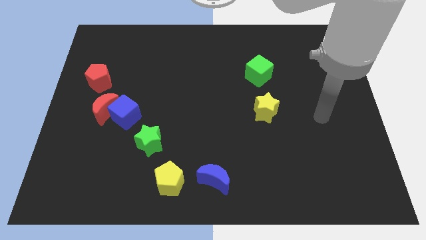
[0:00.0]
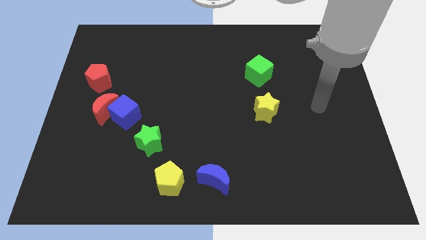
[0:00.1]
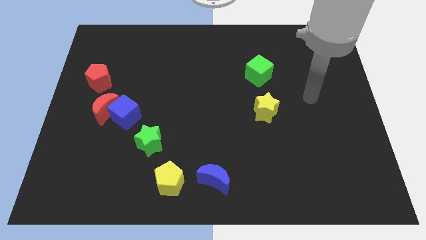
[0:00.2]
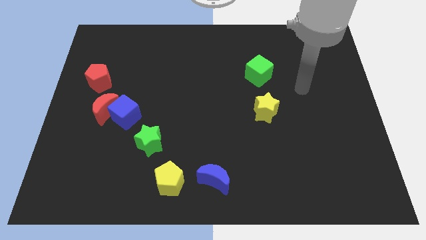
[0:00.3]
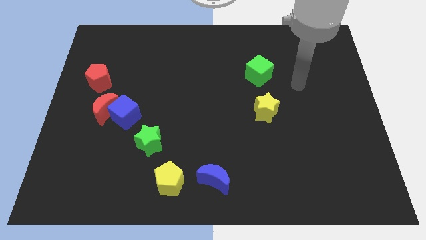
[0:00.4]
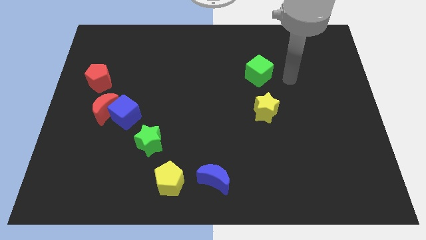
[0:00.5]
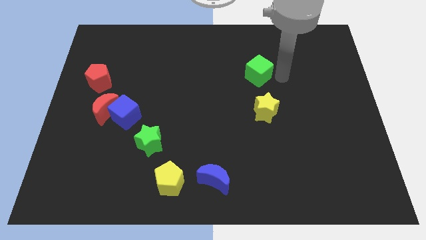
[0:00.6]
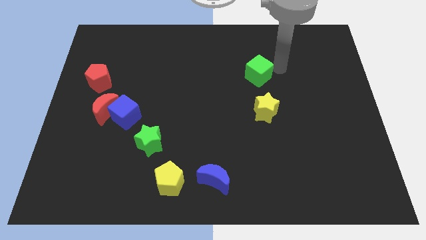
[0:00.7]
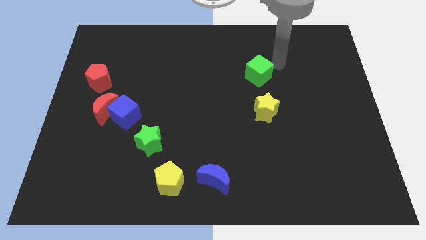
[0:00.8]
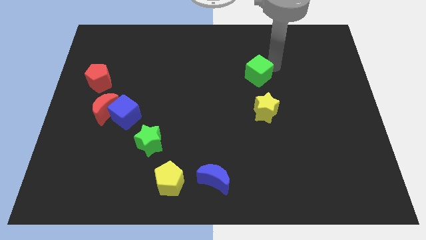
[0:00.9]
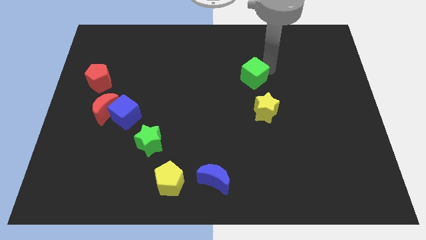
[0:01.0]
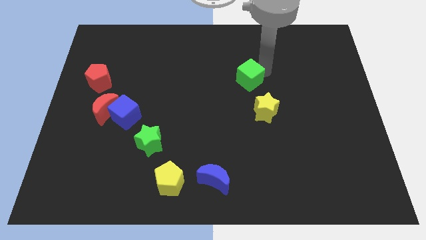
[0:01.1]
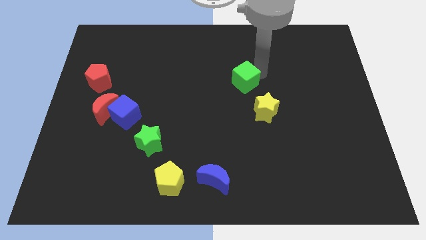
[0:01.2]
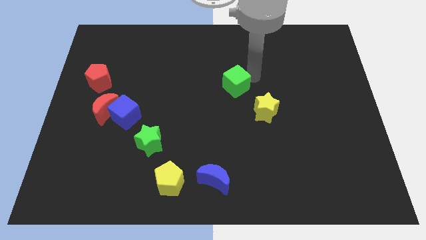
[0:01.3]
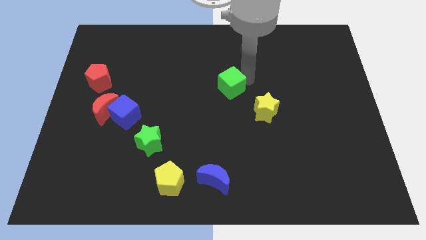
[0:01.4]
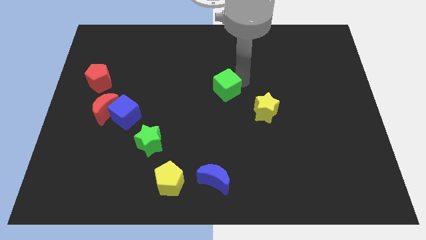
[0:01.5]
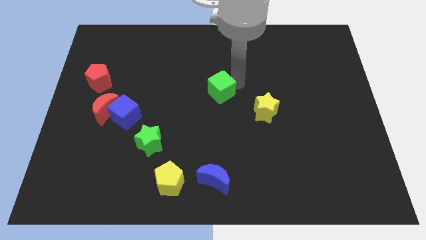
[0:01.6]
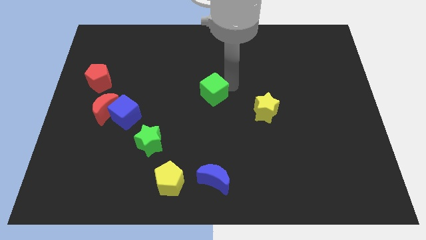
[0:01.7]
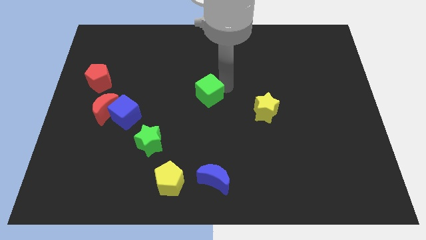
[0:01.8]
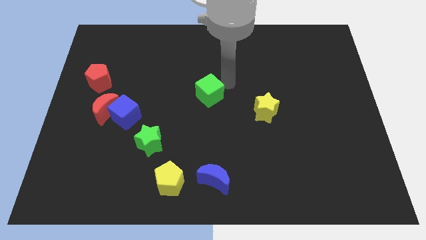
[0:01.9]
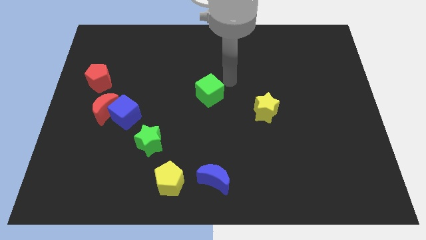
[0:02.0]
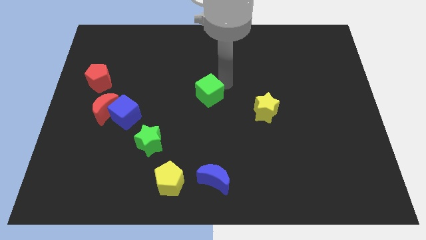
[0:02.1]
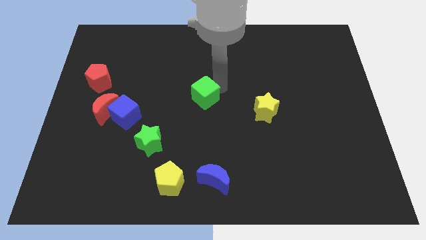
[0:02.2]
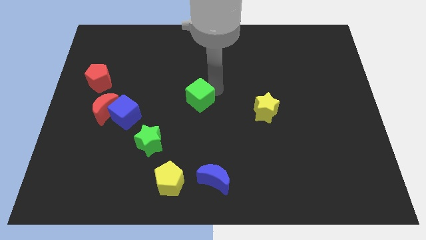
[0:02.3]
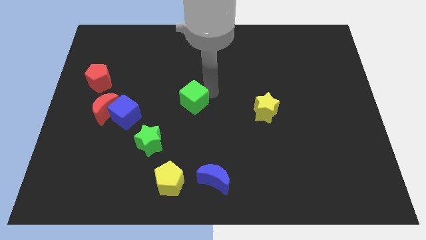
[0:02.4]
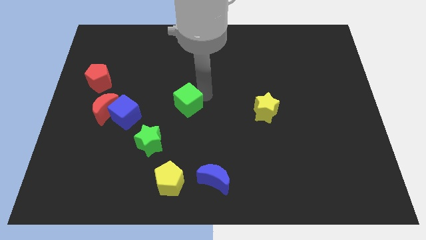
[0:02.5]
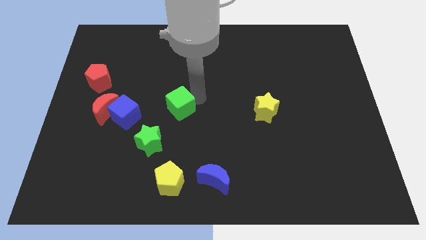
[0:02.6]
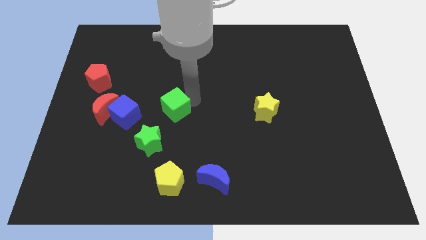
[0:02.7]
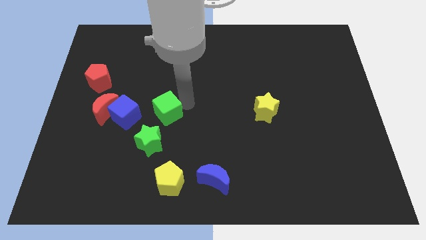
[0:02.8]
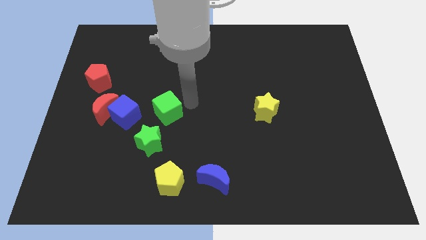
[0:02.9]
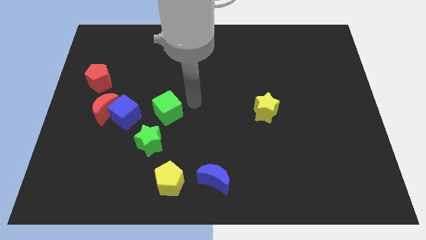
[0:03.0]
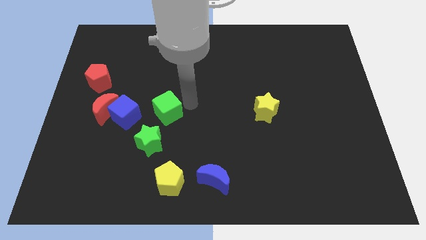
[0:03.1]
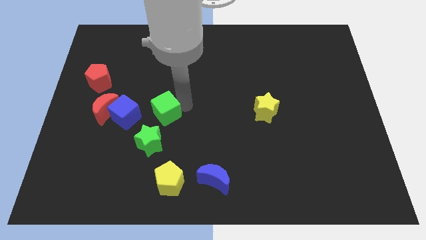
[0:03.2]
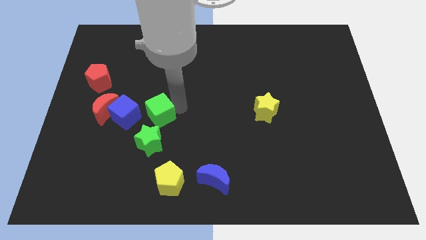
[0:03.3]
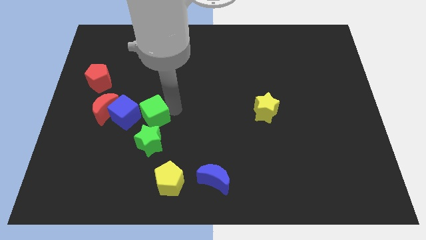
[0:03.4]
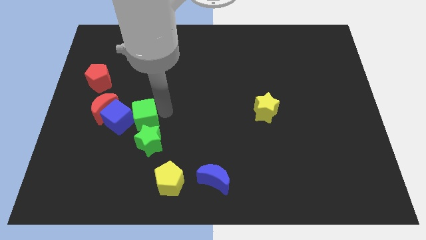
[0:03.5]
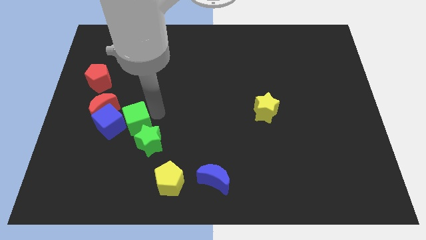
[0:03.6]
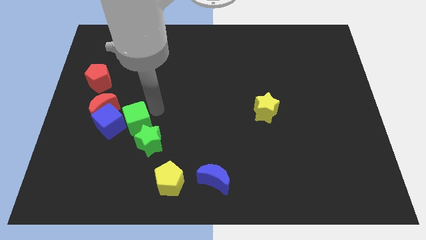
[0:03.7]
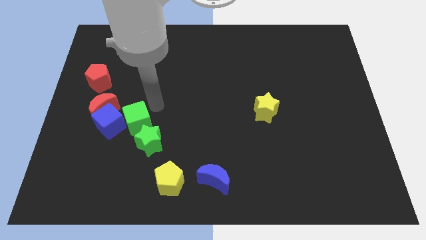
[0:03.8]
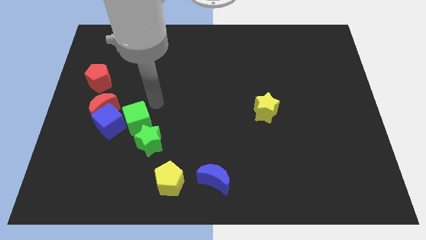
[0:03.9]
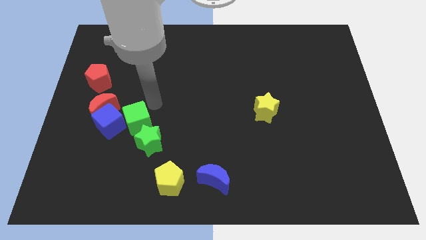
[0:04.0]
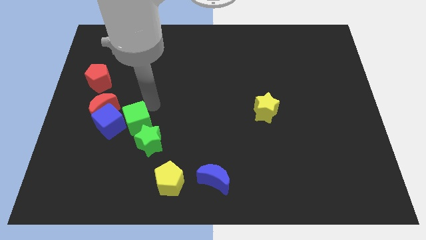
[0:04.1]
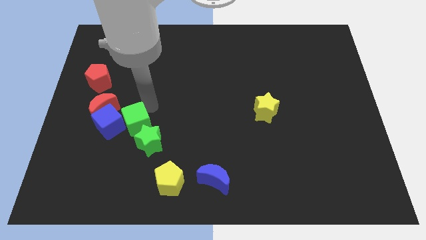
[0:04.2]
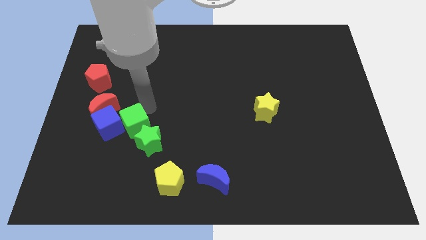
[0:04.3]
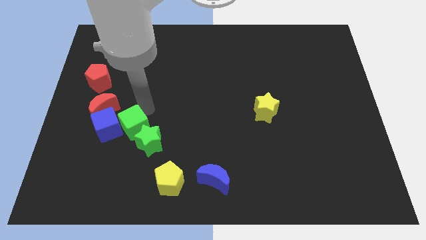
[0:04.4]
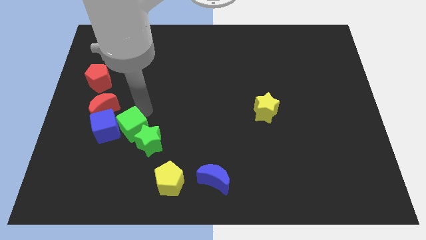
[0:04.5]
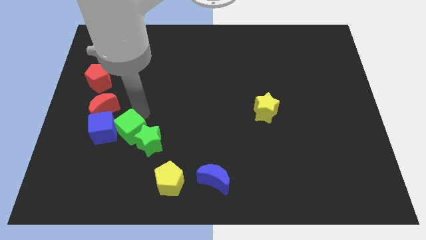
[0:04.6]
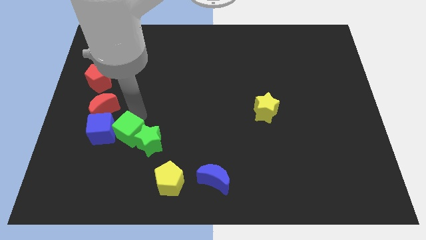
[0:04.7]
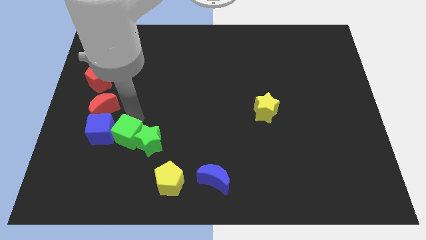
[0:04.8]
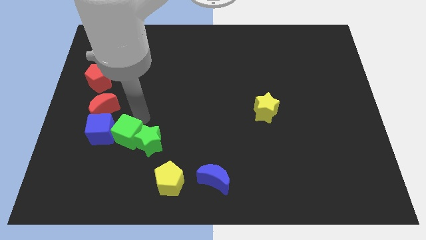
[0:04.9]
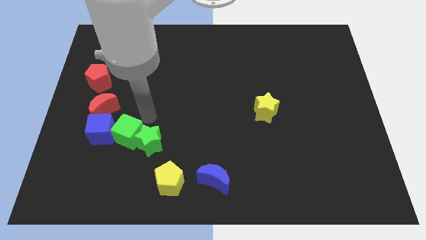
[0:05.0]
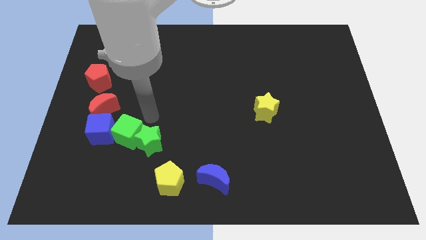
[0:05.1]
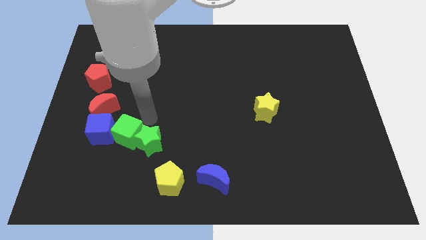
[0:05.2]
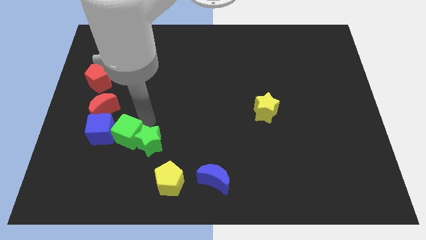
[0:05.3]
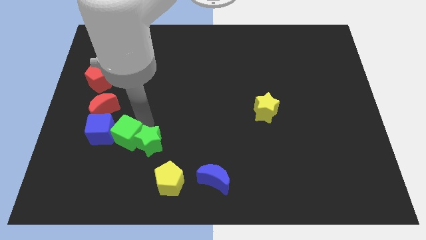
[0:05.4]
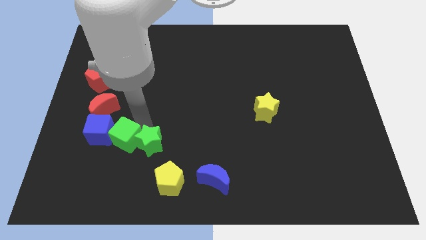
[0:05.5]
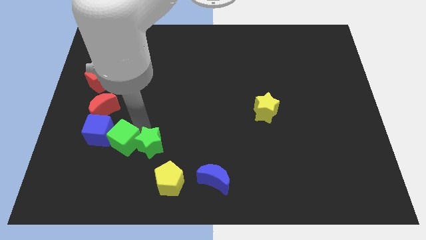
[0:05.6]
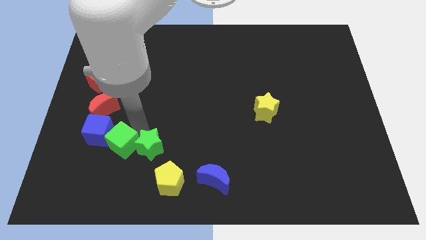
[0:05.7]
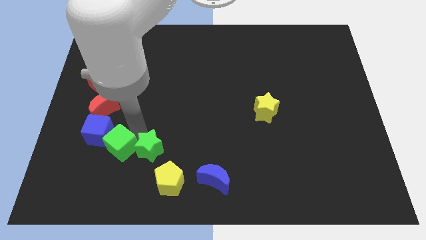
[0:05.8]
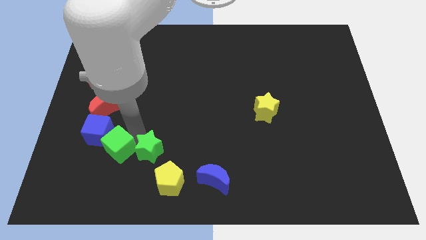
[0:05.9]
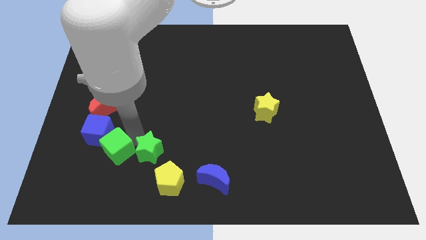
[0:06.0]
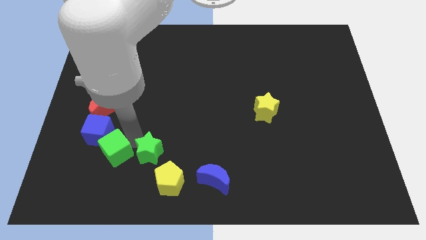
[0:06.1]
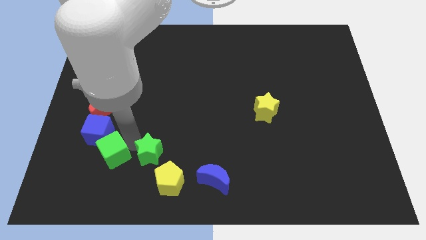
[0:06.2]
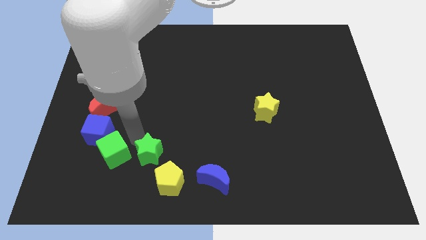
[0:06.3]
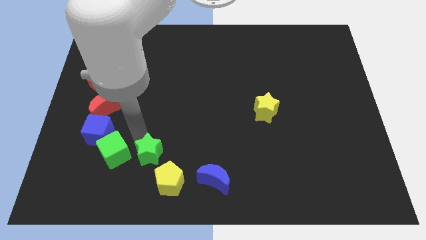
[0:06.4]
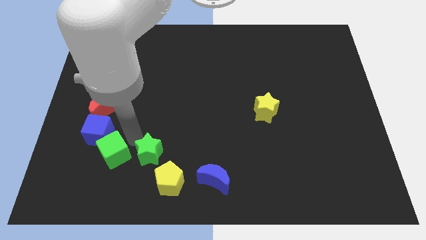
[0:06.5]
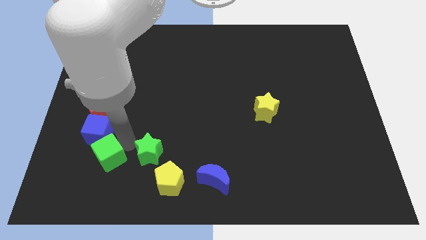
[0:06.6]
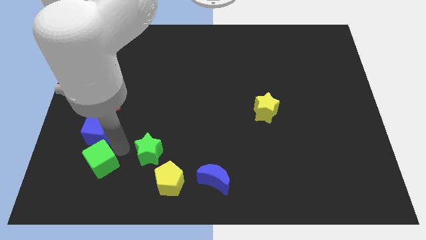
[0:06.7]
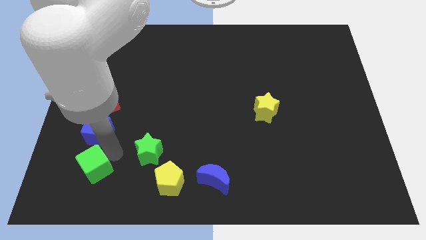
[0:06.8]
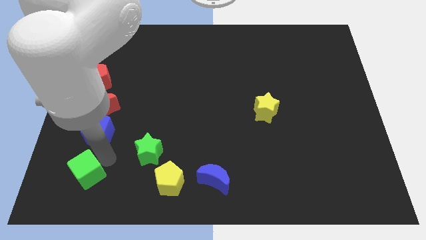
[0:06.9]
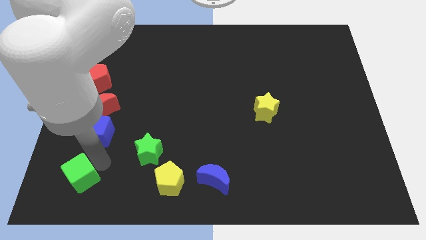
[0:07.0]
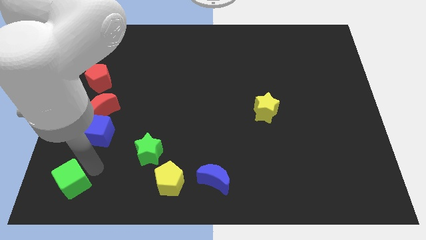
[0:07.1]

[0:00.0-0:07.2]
push the green cube to the bottom left of the board
